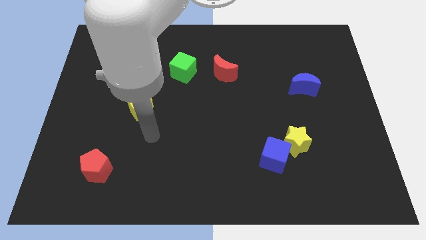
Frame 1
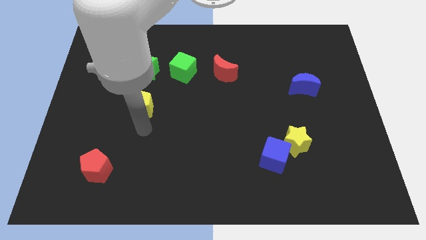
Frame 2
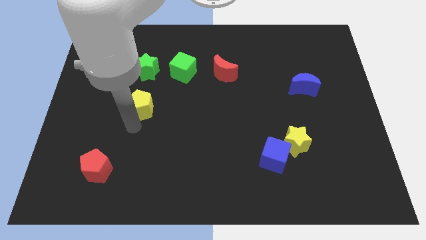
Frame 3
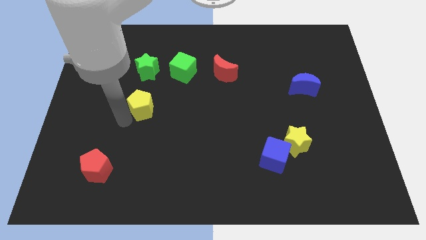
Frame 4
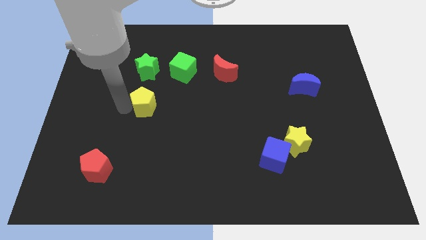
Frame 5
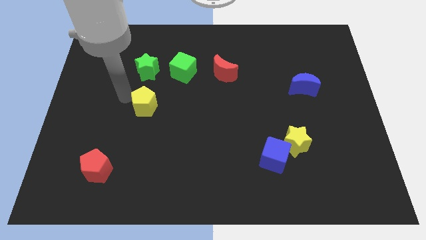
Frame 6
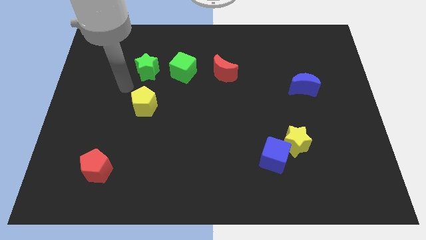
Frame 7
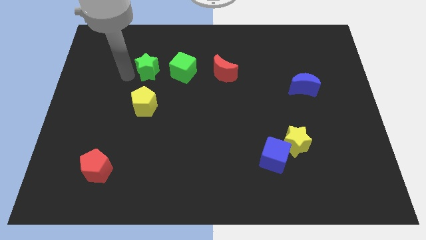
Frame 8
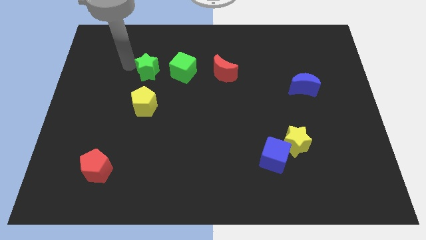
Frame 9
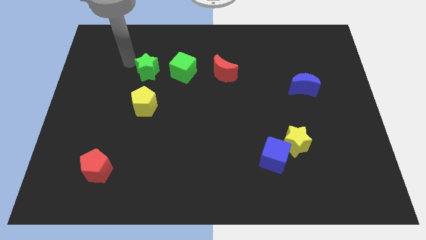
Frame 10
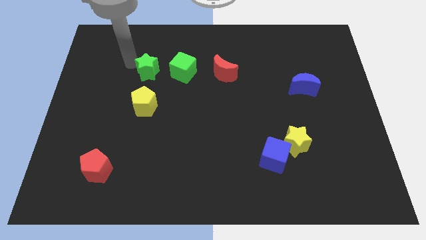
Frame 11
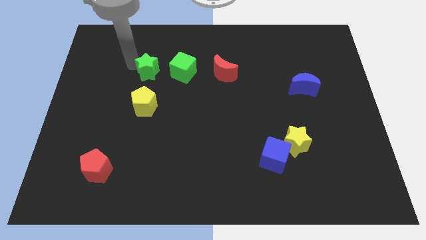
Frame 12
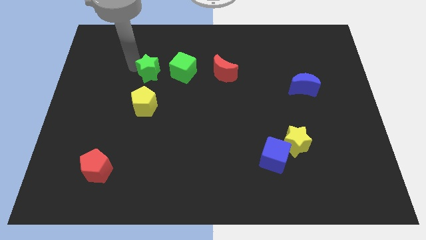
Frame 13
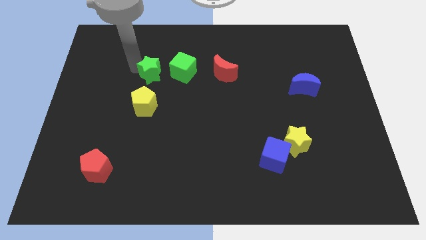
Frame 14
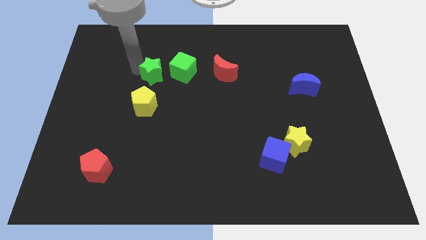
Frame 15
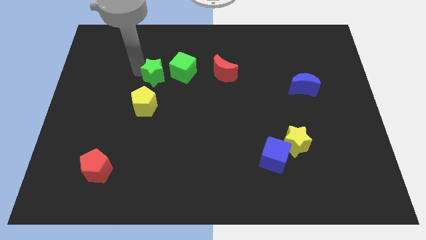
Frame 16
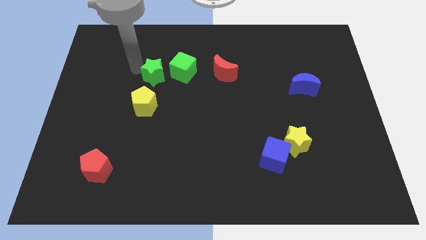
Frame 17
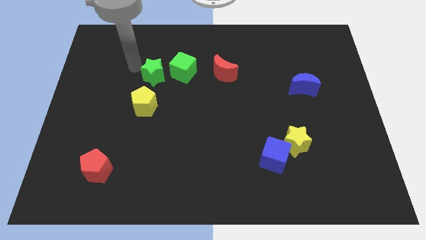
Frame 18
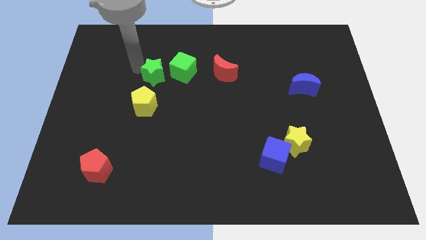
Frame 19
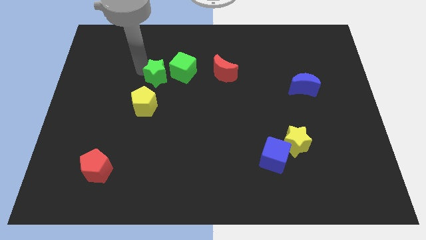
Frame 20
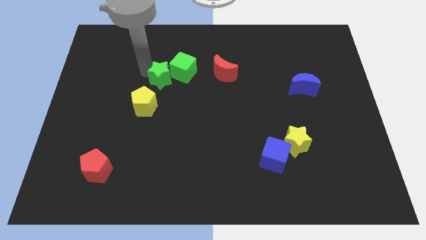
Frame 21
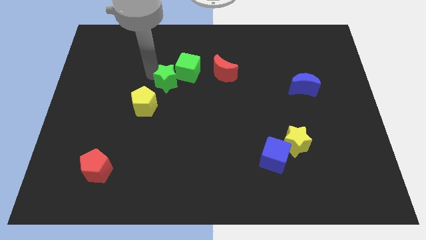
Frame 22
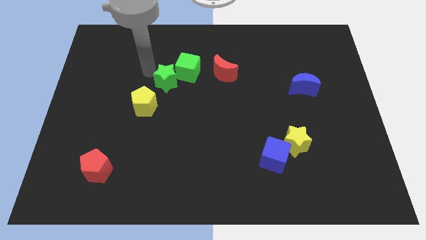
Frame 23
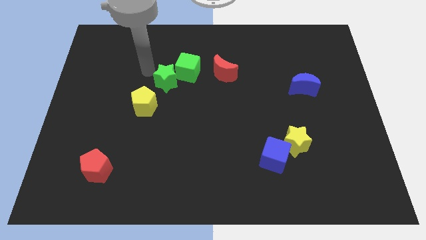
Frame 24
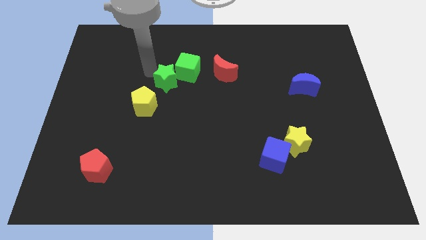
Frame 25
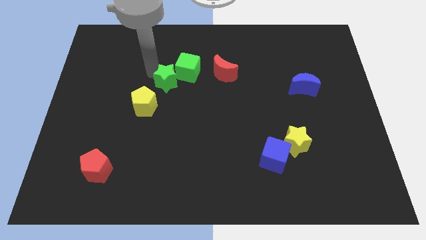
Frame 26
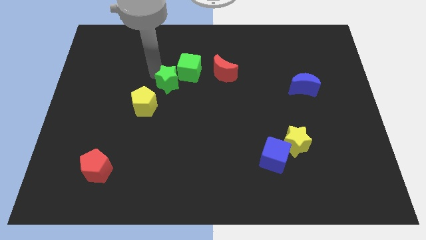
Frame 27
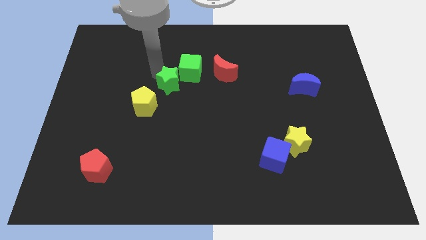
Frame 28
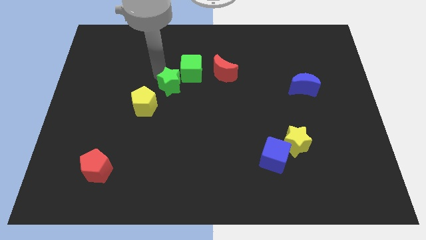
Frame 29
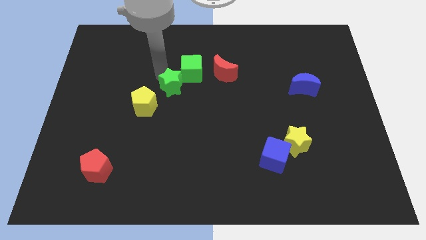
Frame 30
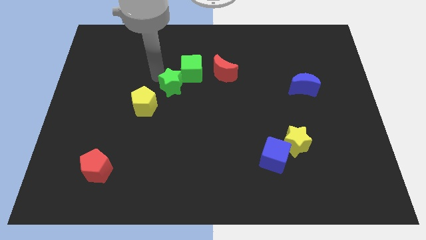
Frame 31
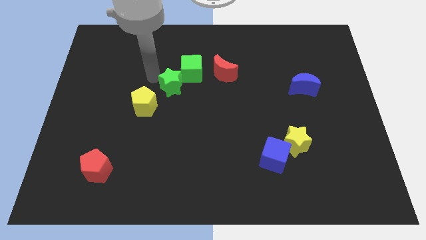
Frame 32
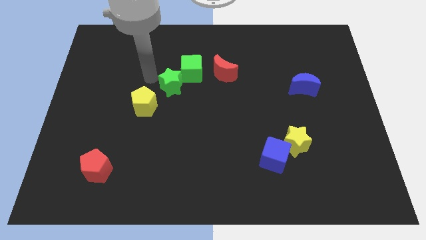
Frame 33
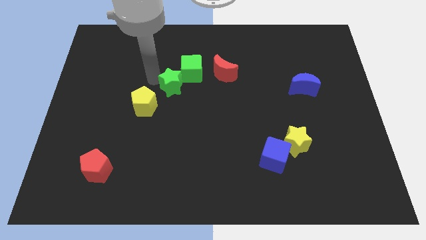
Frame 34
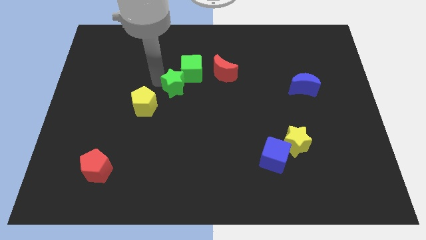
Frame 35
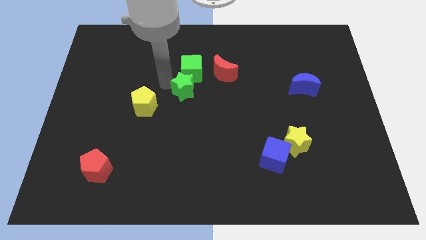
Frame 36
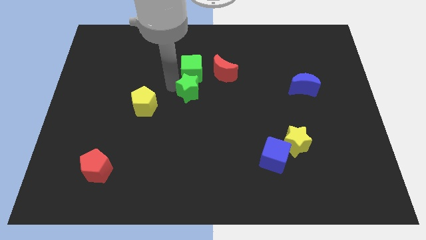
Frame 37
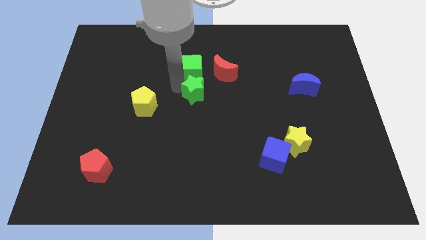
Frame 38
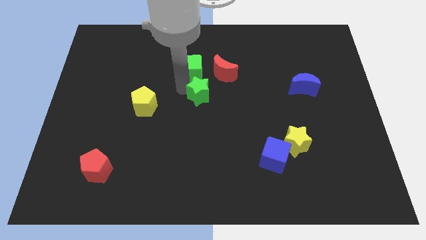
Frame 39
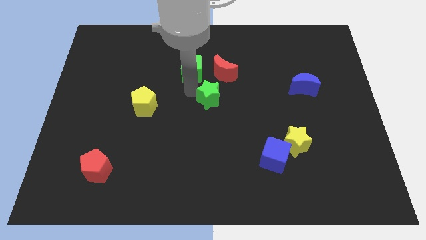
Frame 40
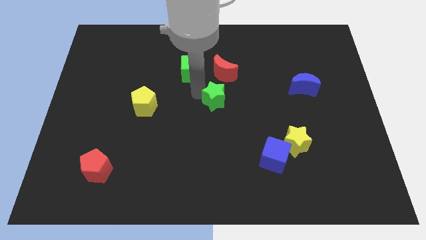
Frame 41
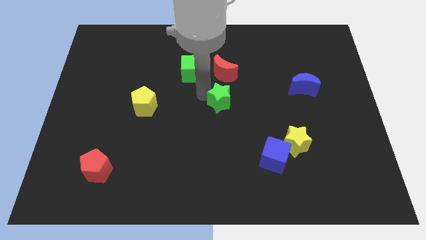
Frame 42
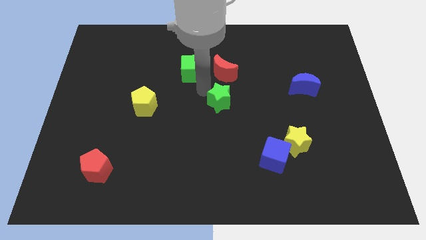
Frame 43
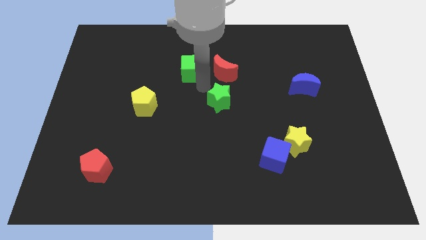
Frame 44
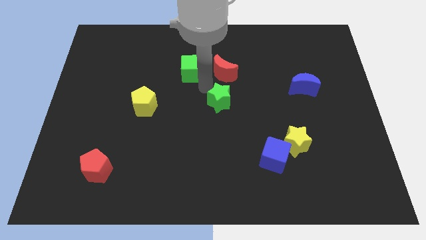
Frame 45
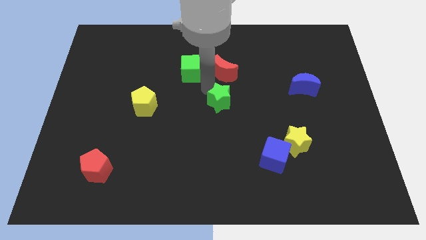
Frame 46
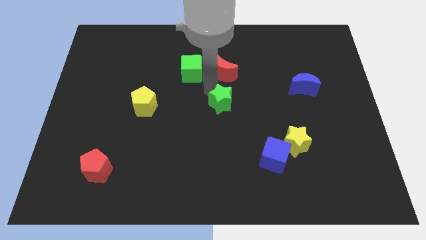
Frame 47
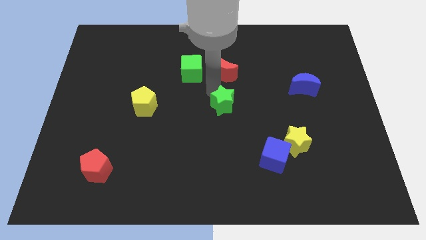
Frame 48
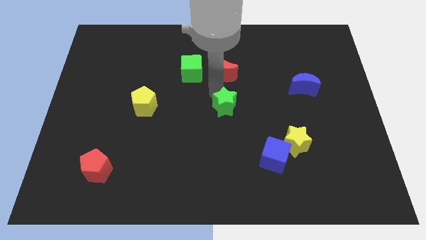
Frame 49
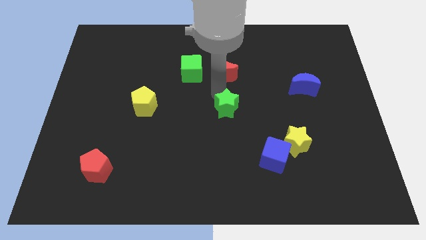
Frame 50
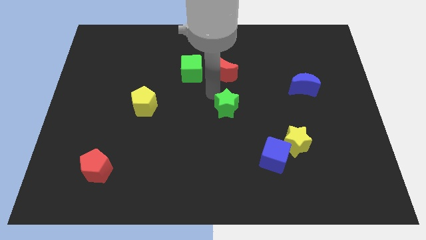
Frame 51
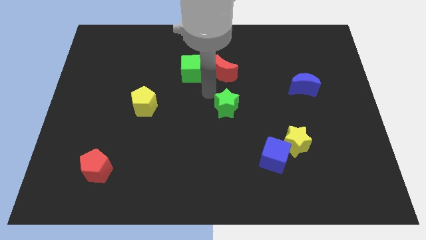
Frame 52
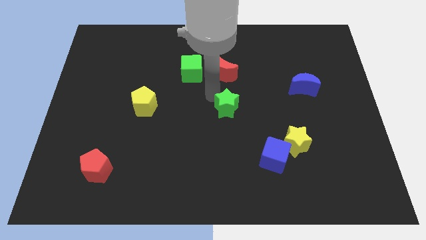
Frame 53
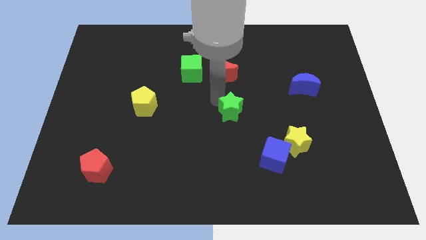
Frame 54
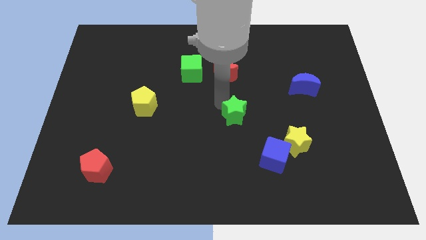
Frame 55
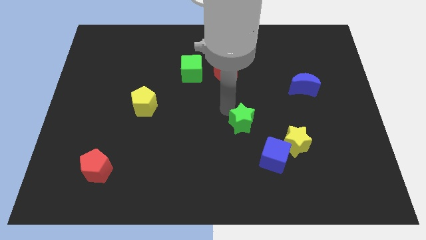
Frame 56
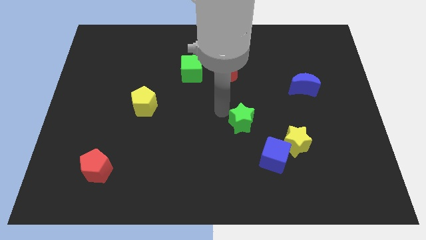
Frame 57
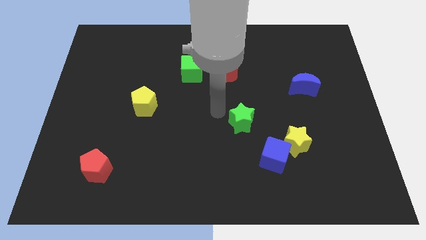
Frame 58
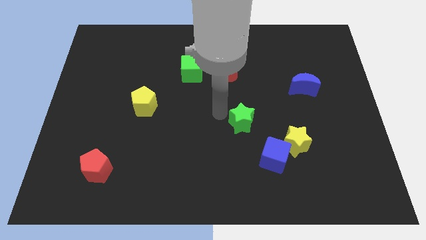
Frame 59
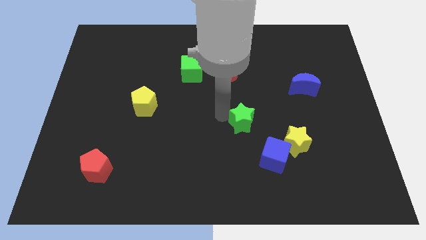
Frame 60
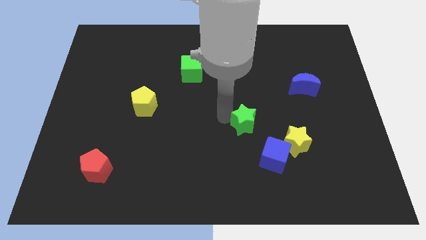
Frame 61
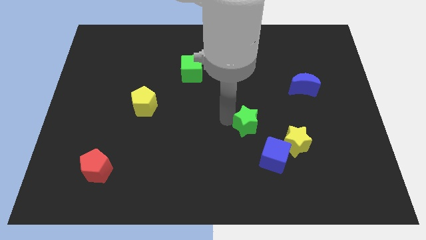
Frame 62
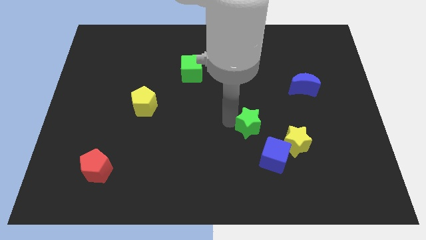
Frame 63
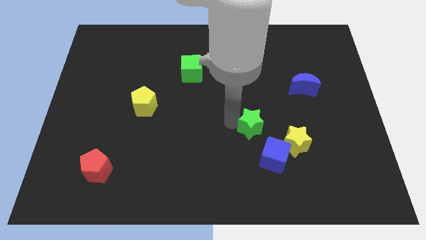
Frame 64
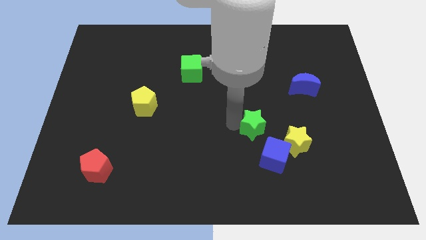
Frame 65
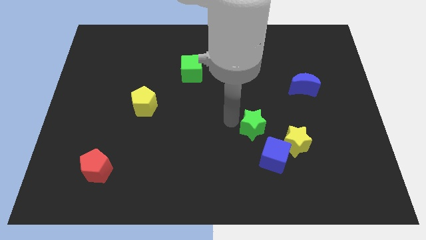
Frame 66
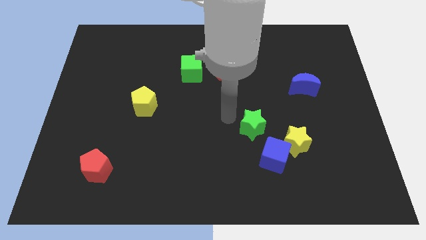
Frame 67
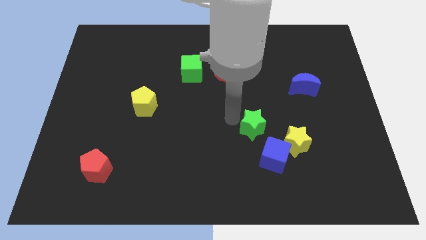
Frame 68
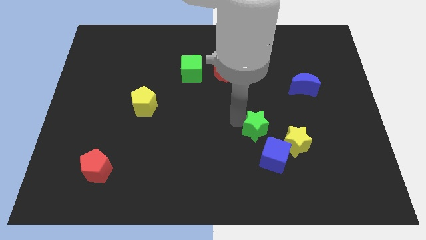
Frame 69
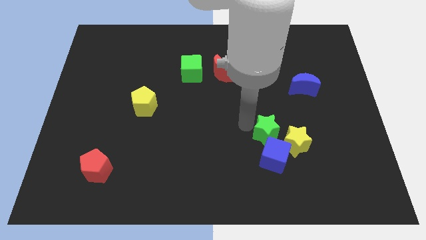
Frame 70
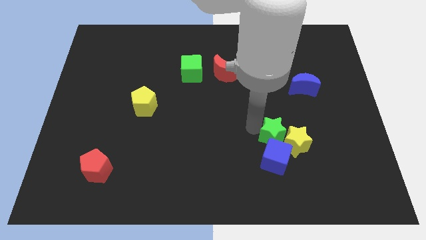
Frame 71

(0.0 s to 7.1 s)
push the green star close to the yellow star

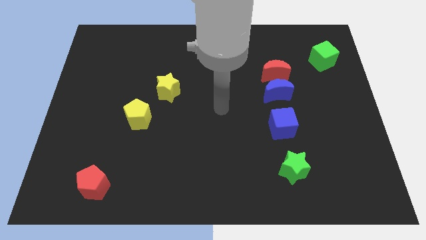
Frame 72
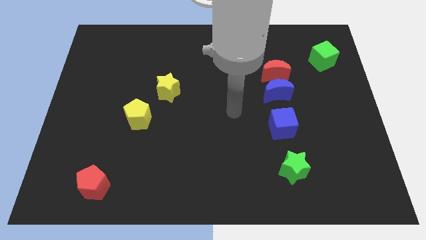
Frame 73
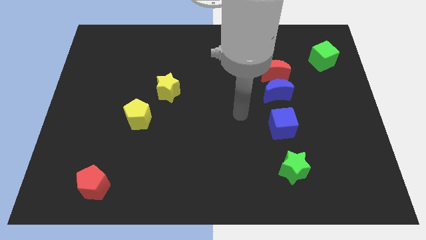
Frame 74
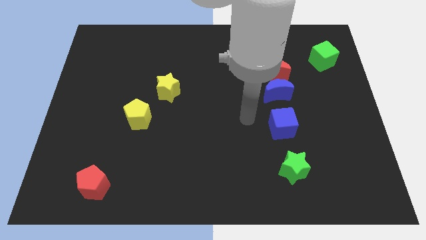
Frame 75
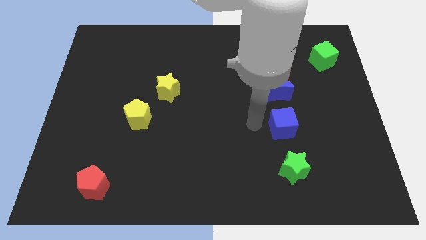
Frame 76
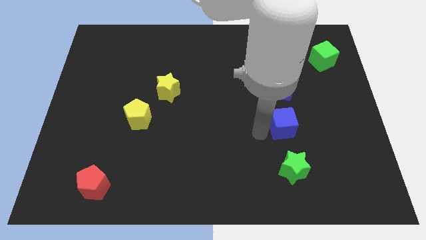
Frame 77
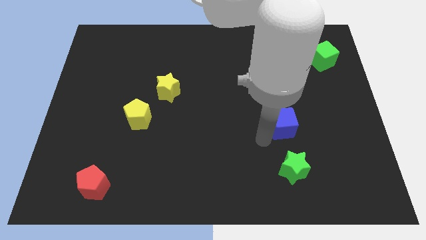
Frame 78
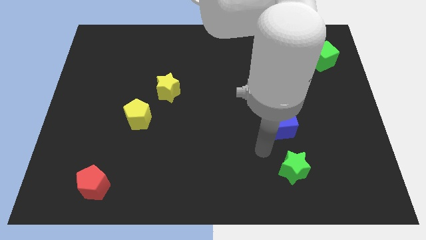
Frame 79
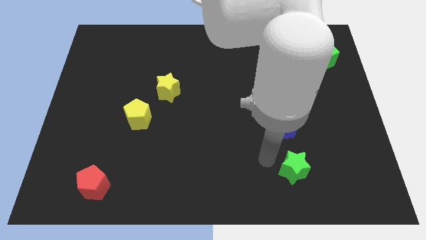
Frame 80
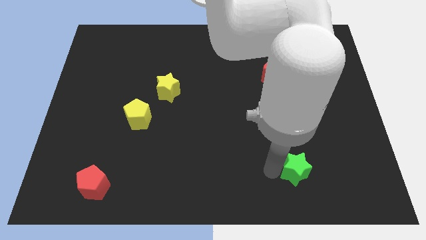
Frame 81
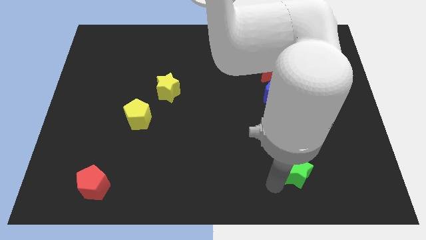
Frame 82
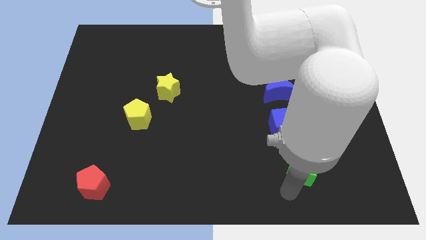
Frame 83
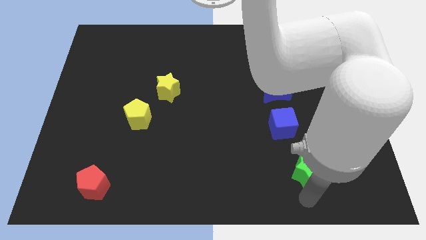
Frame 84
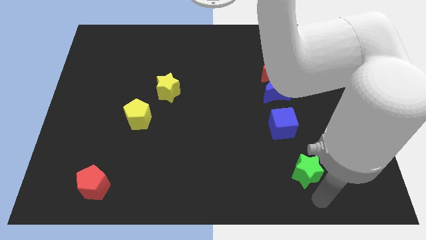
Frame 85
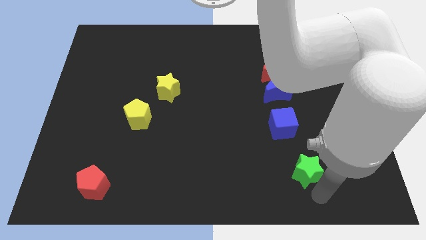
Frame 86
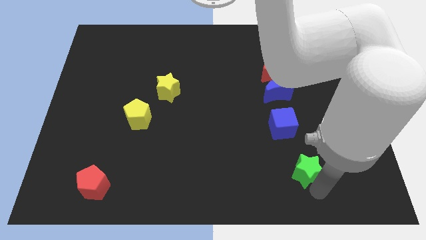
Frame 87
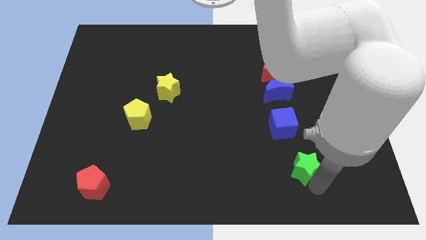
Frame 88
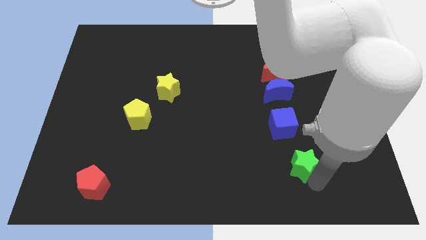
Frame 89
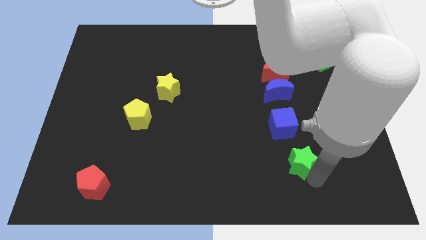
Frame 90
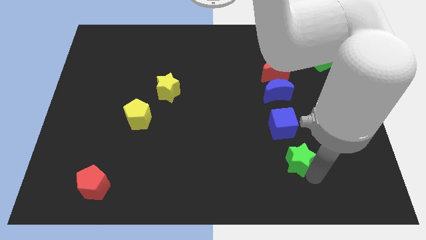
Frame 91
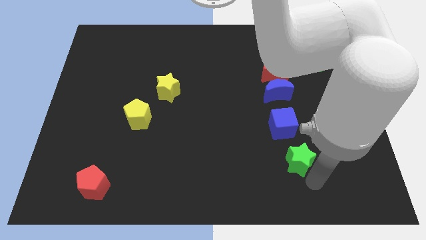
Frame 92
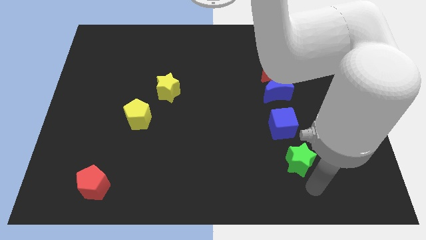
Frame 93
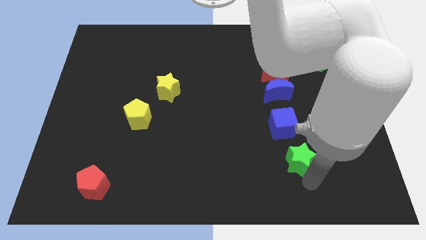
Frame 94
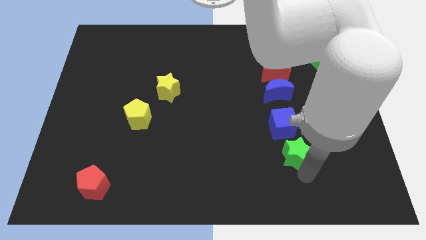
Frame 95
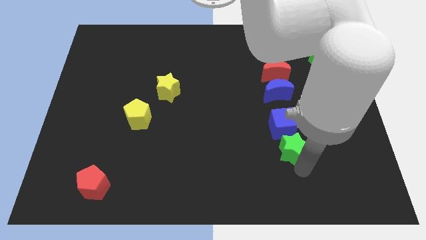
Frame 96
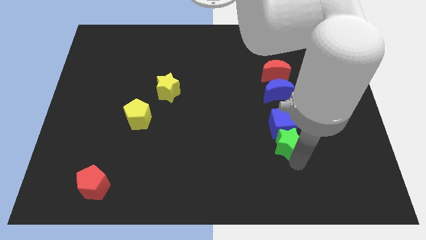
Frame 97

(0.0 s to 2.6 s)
put the green star to the blue cube
